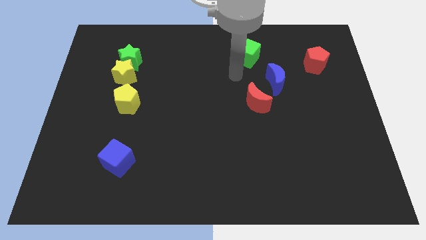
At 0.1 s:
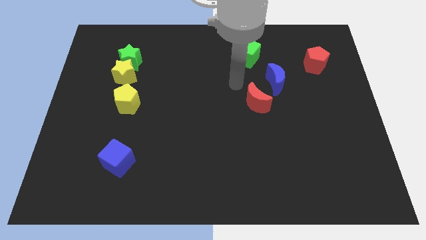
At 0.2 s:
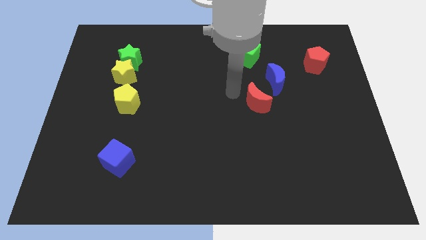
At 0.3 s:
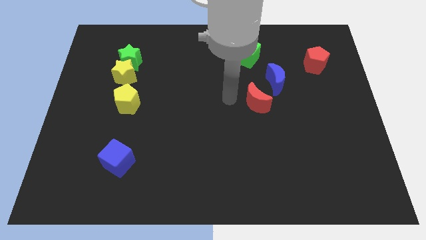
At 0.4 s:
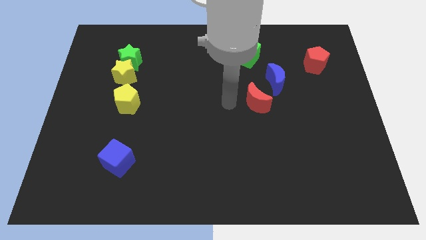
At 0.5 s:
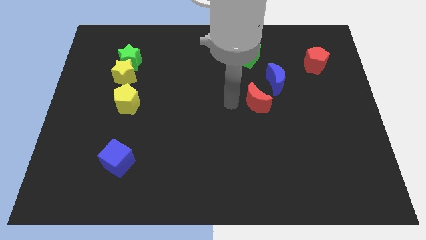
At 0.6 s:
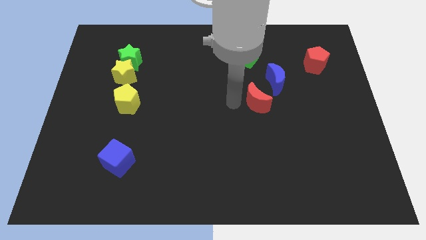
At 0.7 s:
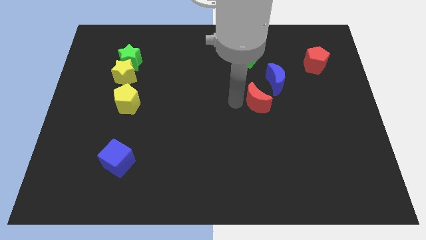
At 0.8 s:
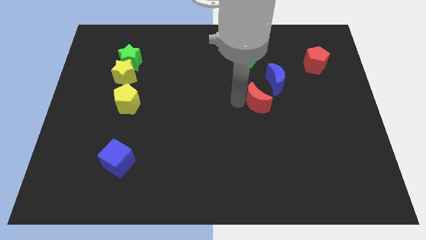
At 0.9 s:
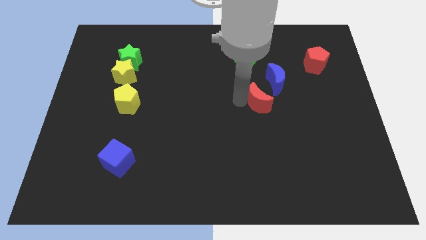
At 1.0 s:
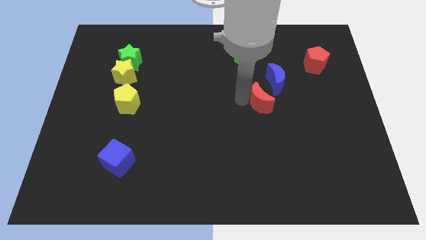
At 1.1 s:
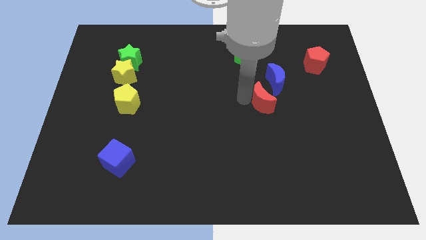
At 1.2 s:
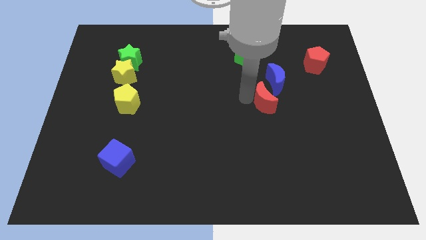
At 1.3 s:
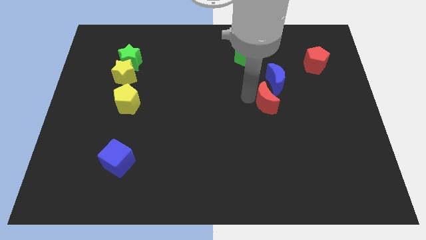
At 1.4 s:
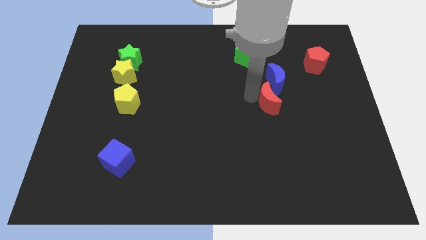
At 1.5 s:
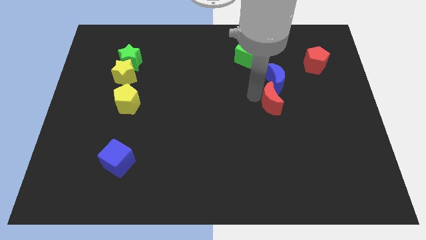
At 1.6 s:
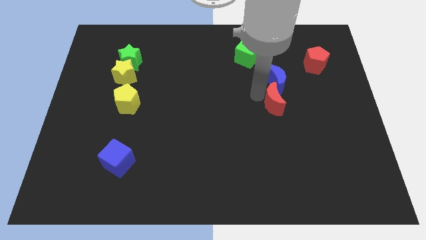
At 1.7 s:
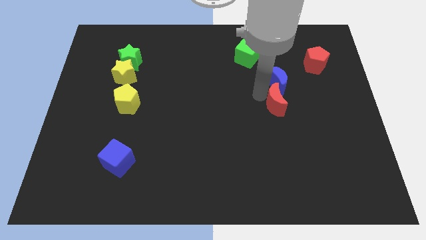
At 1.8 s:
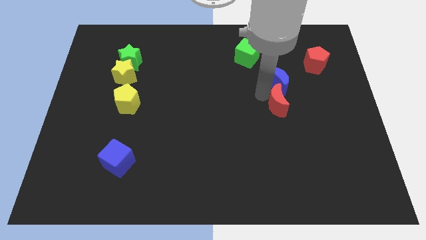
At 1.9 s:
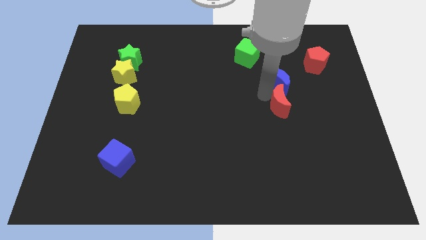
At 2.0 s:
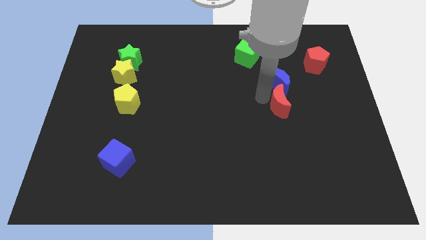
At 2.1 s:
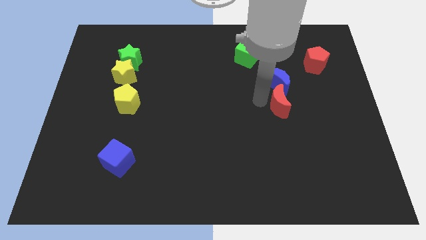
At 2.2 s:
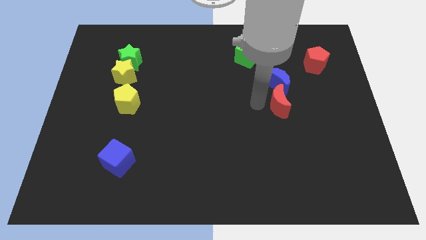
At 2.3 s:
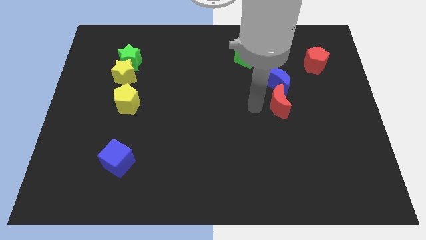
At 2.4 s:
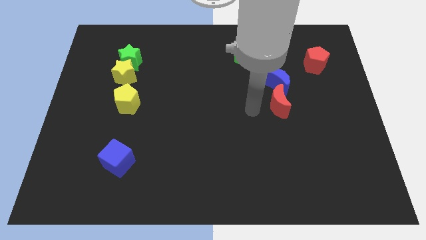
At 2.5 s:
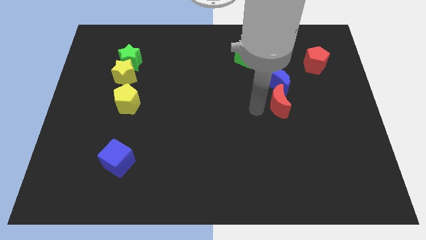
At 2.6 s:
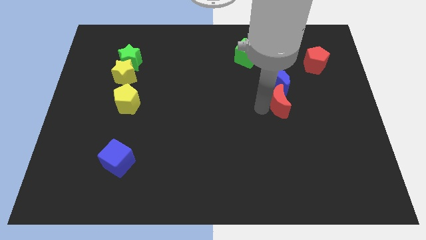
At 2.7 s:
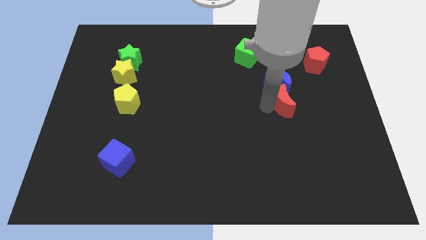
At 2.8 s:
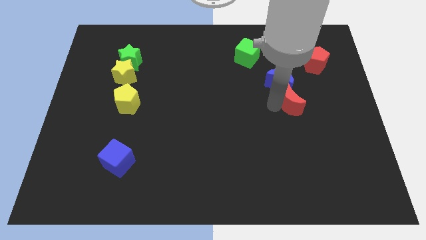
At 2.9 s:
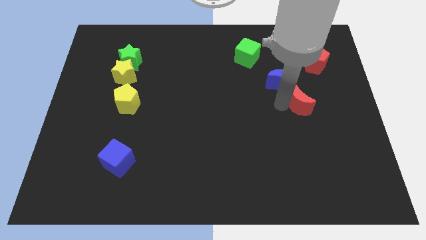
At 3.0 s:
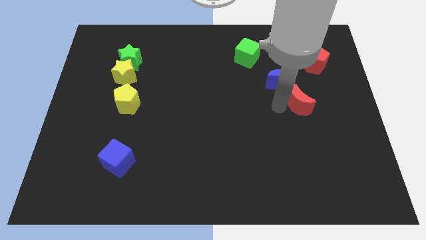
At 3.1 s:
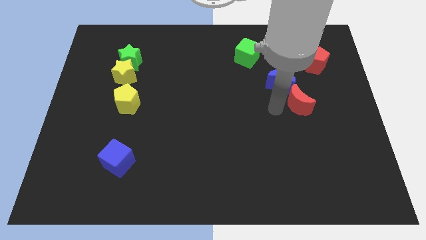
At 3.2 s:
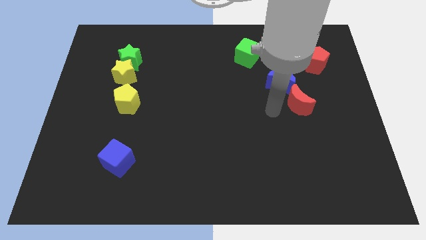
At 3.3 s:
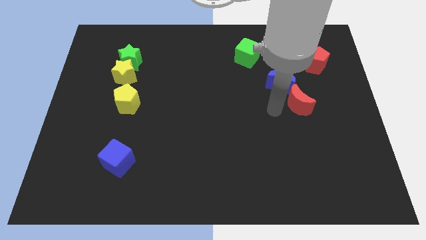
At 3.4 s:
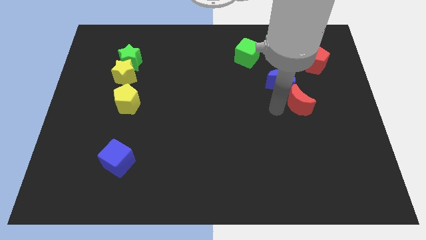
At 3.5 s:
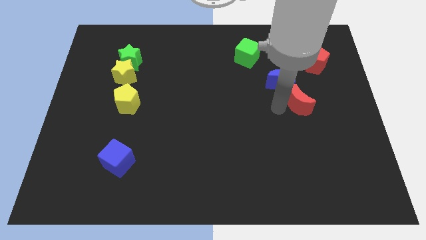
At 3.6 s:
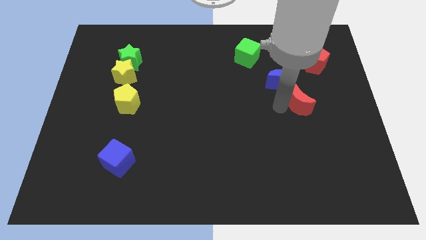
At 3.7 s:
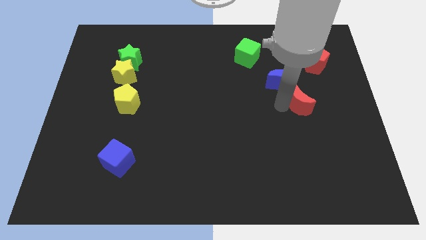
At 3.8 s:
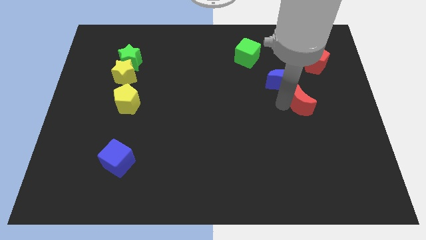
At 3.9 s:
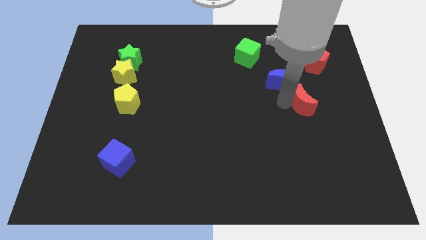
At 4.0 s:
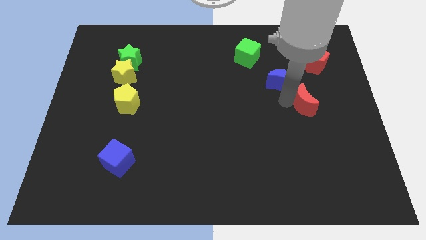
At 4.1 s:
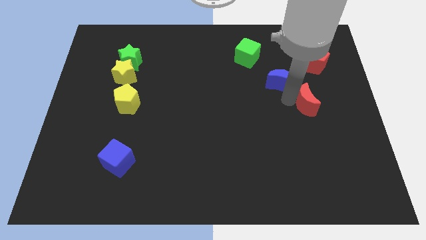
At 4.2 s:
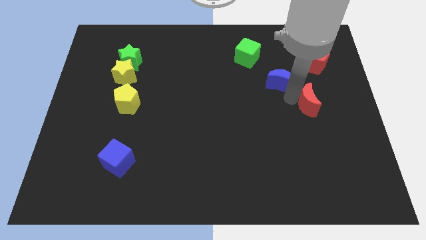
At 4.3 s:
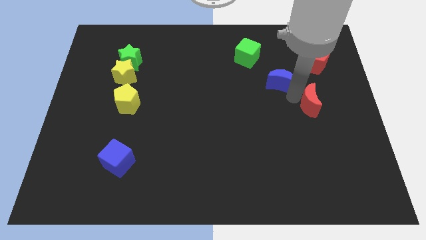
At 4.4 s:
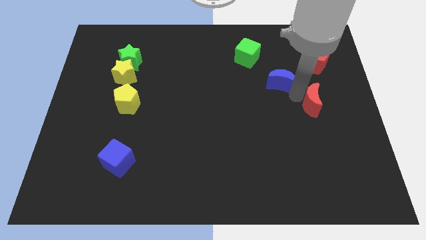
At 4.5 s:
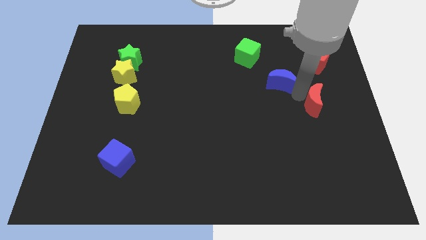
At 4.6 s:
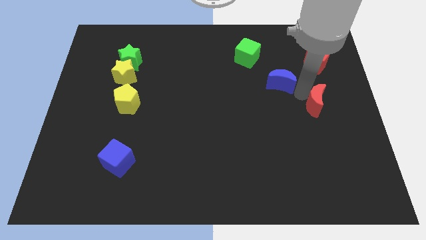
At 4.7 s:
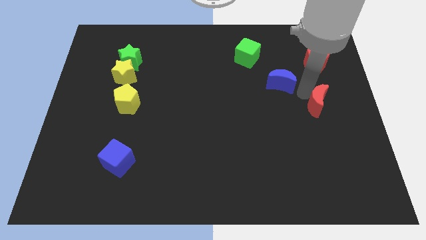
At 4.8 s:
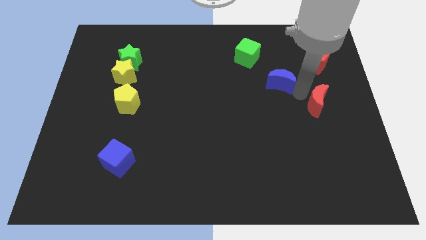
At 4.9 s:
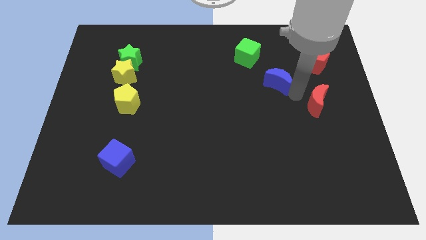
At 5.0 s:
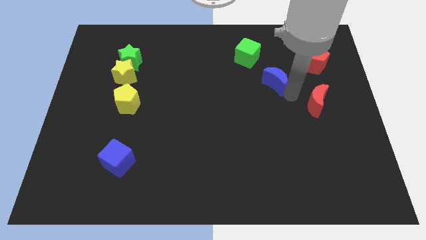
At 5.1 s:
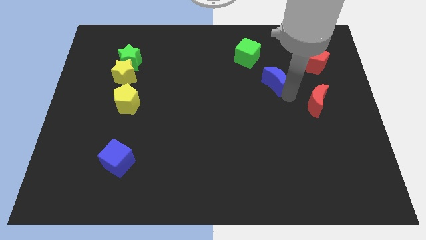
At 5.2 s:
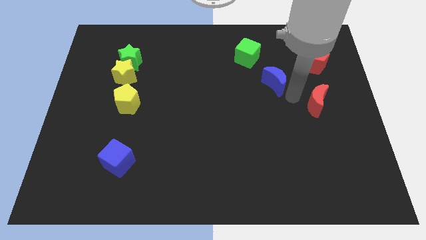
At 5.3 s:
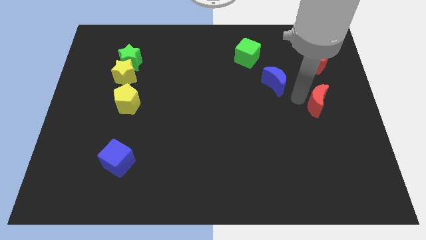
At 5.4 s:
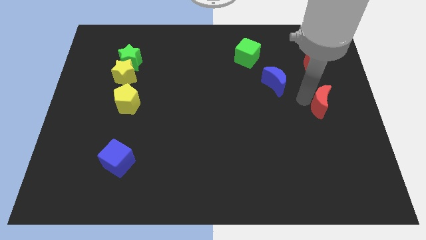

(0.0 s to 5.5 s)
put the red moon to the right side

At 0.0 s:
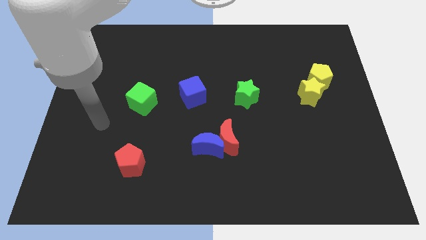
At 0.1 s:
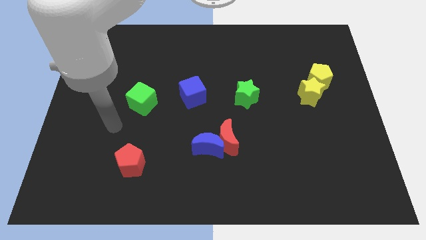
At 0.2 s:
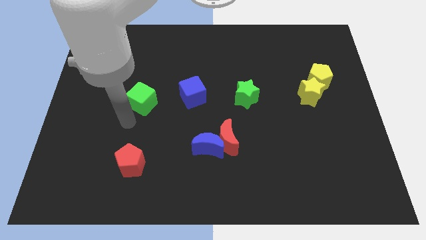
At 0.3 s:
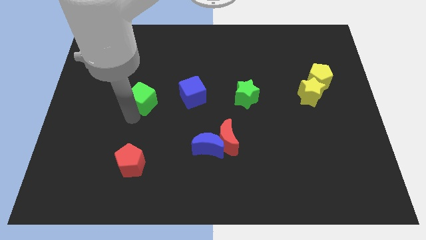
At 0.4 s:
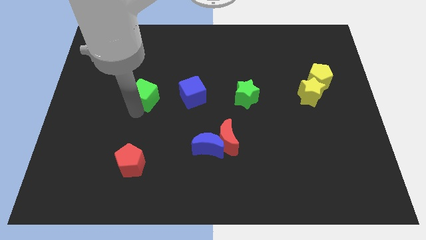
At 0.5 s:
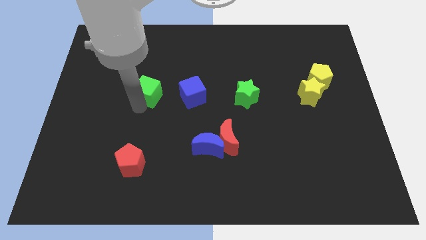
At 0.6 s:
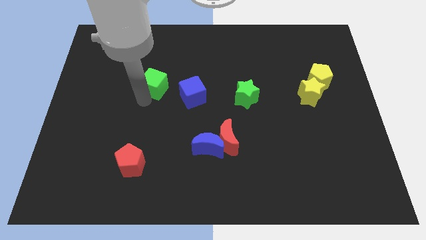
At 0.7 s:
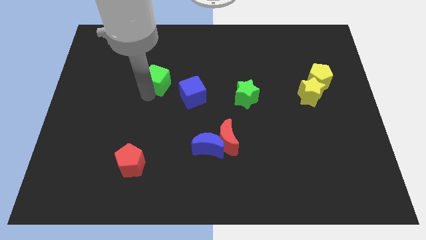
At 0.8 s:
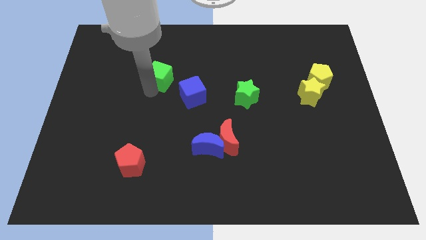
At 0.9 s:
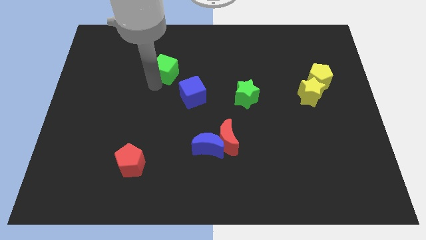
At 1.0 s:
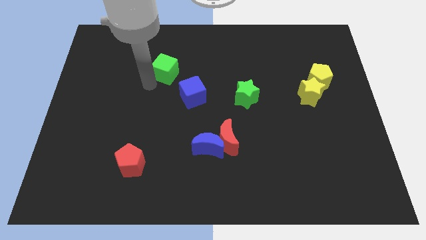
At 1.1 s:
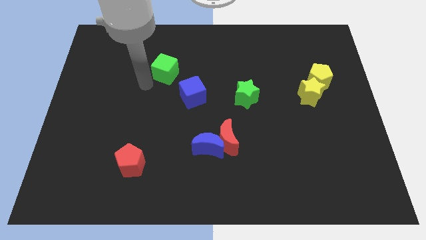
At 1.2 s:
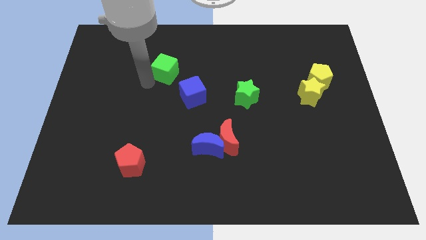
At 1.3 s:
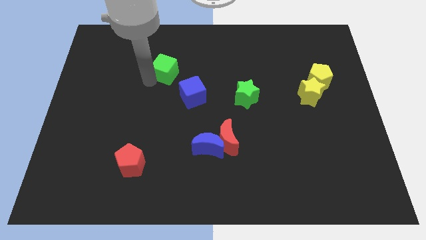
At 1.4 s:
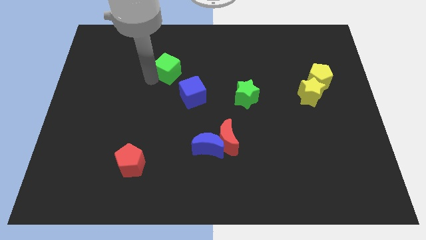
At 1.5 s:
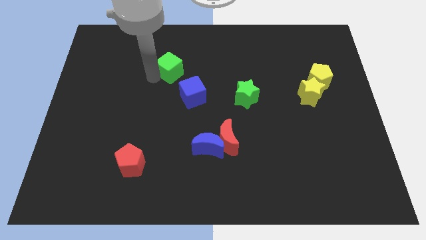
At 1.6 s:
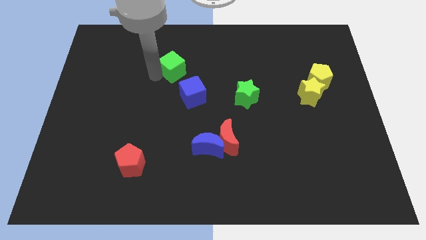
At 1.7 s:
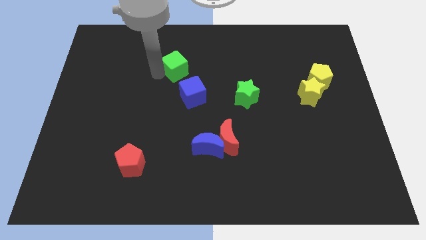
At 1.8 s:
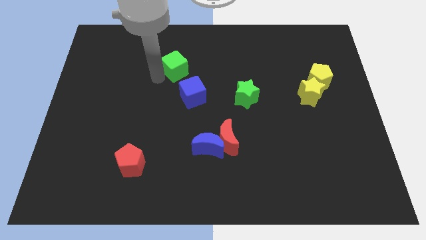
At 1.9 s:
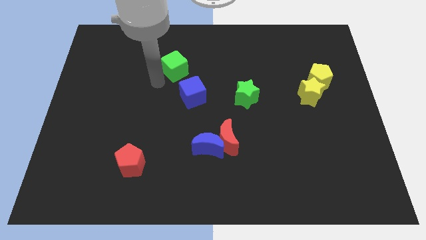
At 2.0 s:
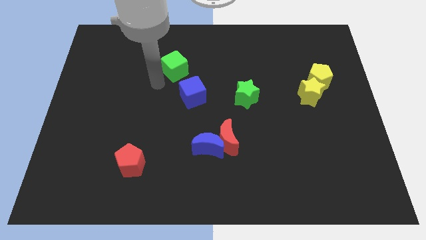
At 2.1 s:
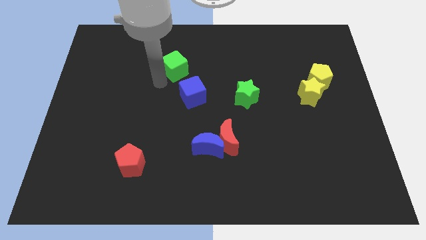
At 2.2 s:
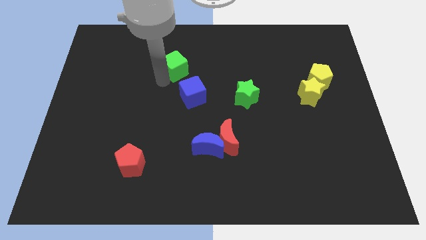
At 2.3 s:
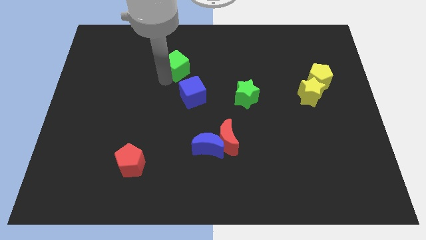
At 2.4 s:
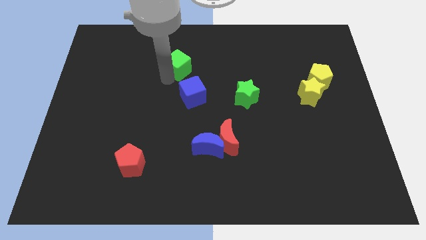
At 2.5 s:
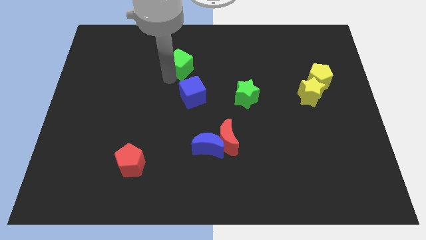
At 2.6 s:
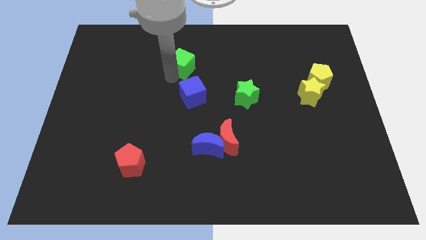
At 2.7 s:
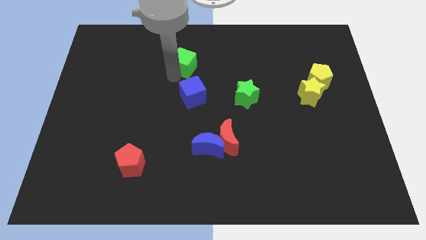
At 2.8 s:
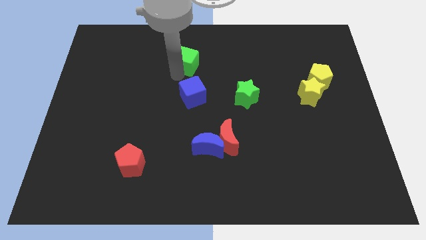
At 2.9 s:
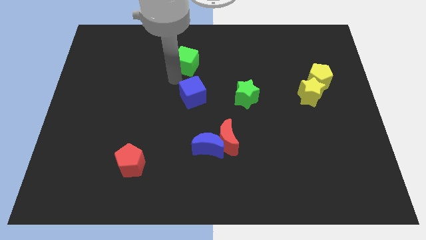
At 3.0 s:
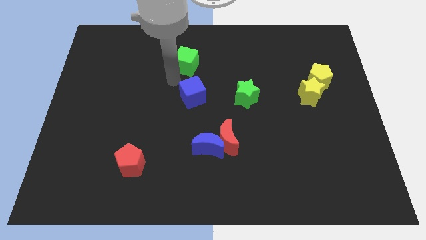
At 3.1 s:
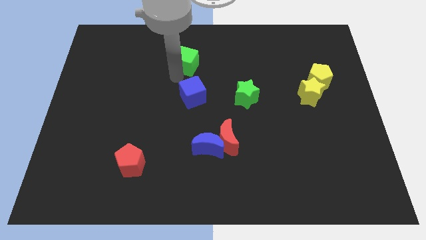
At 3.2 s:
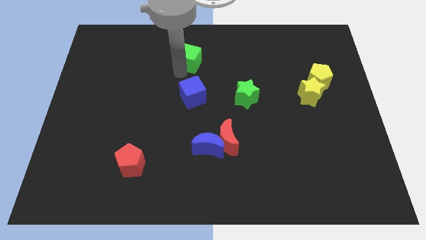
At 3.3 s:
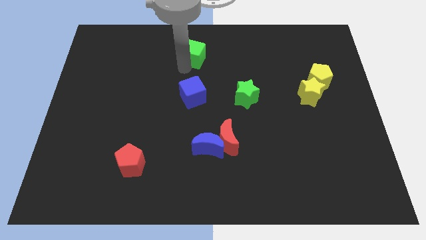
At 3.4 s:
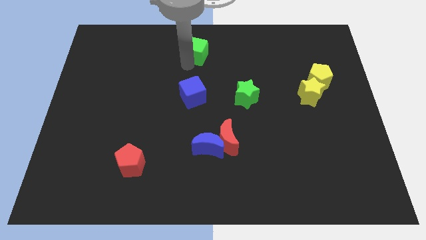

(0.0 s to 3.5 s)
slide the green cube to the towards your base
